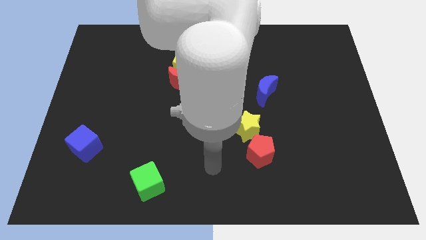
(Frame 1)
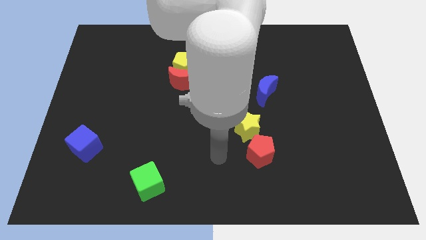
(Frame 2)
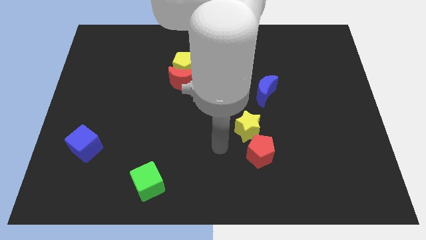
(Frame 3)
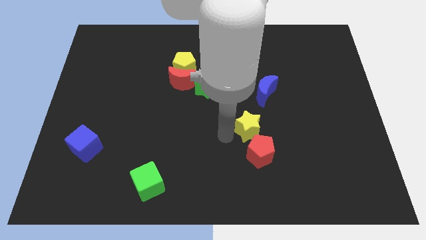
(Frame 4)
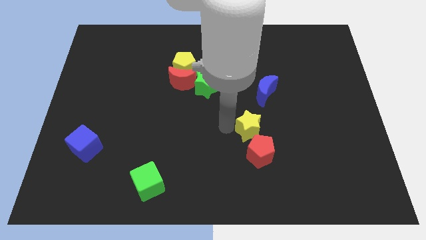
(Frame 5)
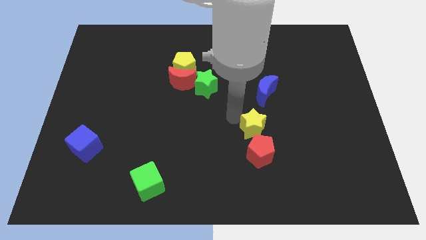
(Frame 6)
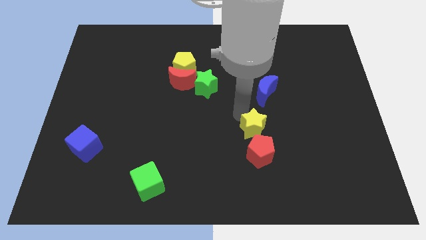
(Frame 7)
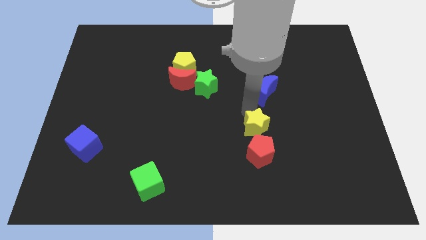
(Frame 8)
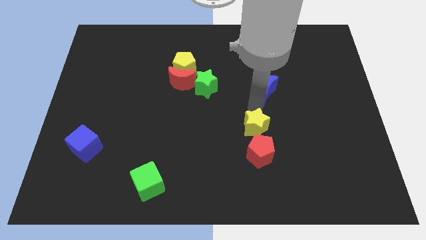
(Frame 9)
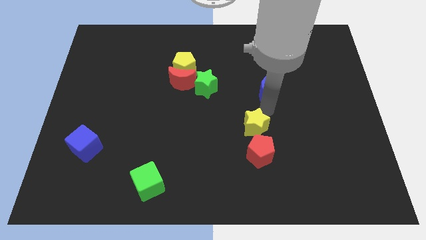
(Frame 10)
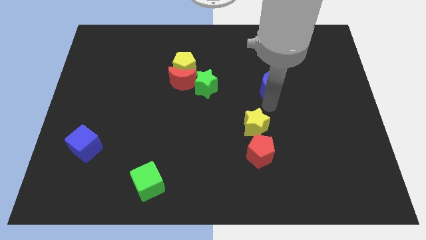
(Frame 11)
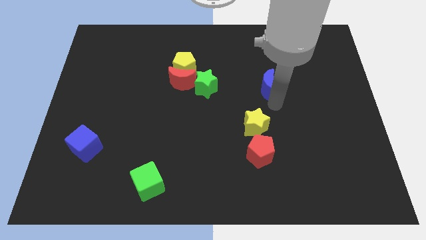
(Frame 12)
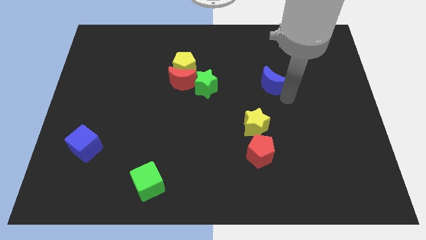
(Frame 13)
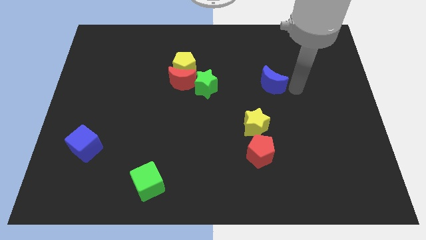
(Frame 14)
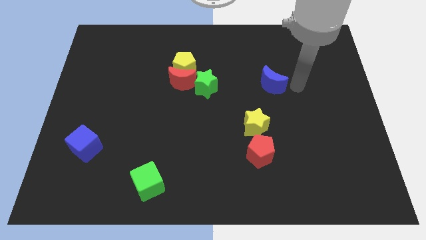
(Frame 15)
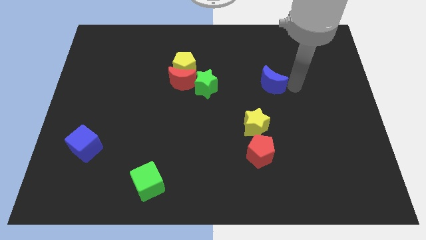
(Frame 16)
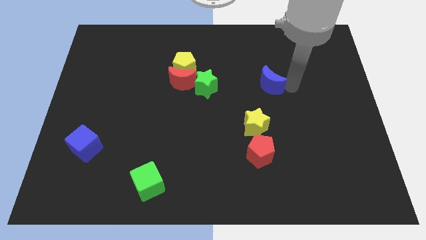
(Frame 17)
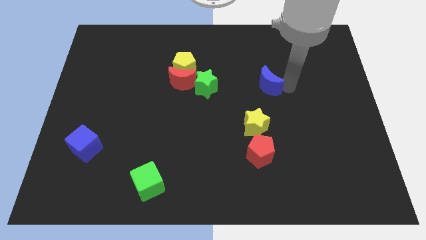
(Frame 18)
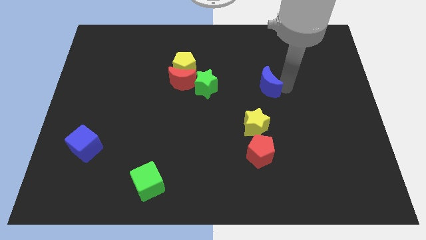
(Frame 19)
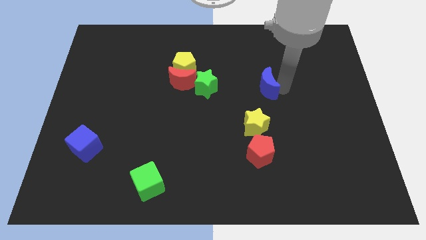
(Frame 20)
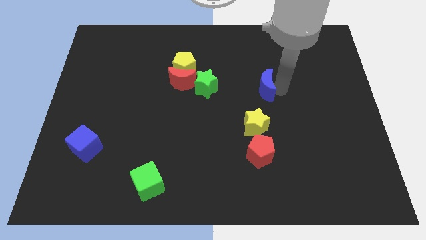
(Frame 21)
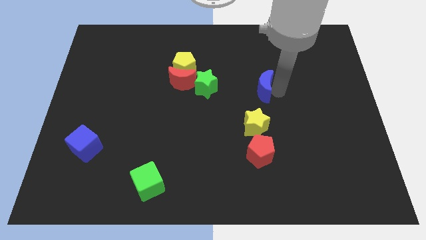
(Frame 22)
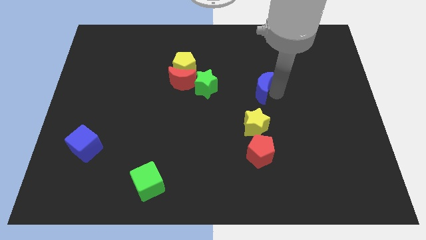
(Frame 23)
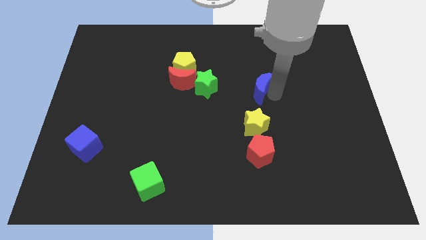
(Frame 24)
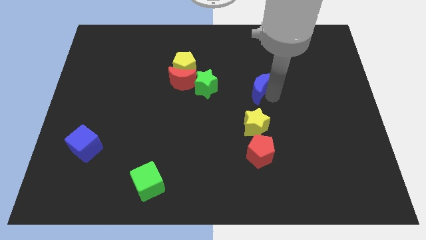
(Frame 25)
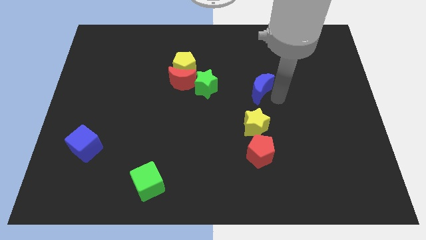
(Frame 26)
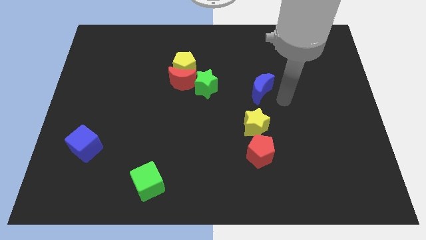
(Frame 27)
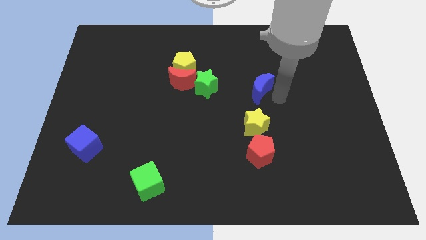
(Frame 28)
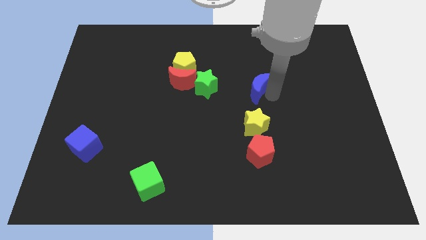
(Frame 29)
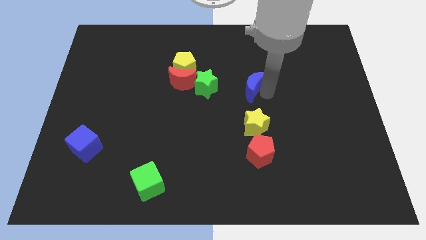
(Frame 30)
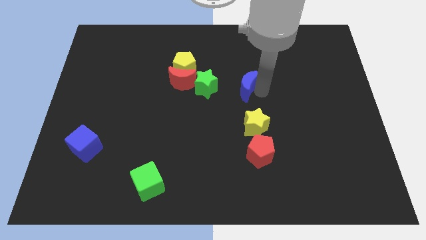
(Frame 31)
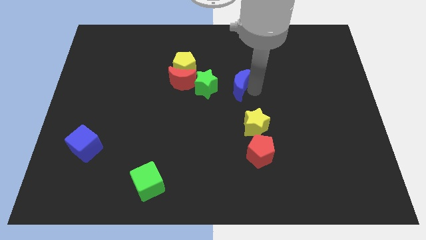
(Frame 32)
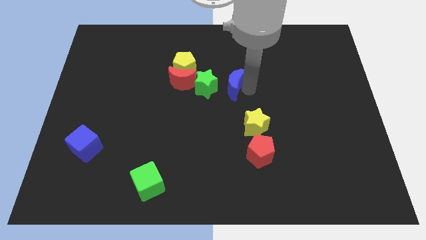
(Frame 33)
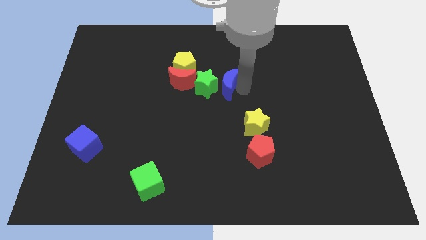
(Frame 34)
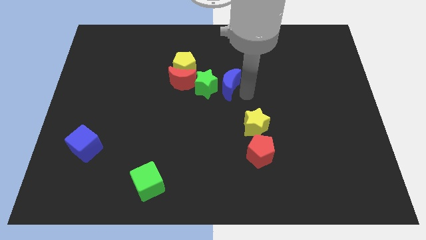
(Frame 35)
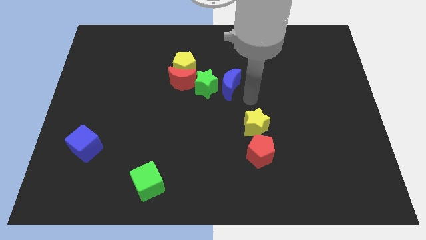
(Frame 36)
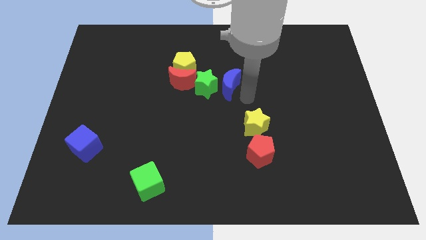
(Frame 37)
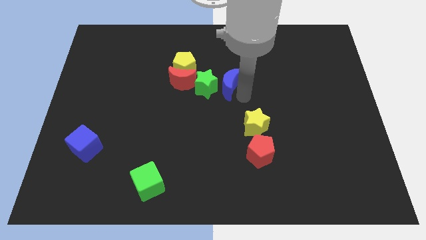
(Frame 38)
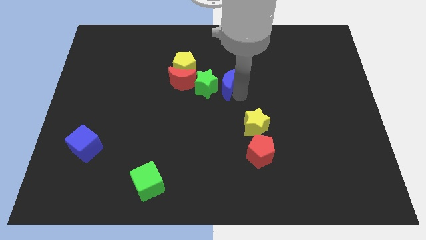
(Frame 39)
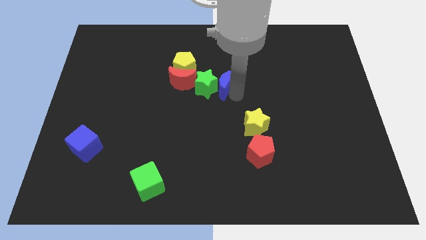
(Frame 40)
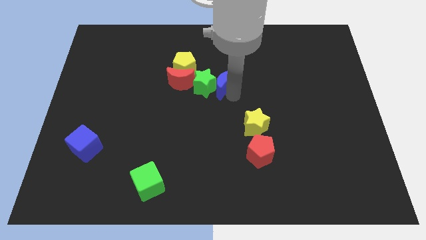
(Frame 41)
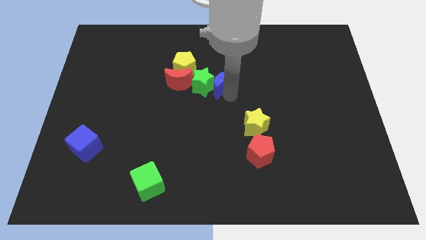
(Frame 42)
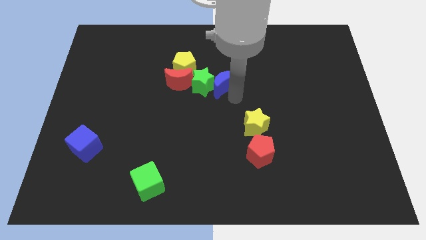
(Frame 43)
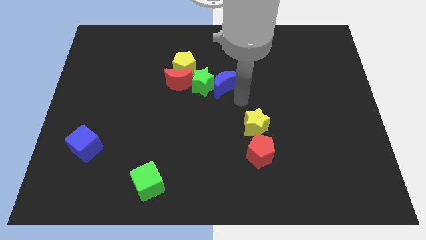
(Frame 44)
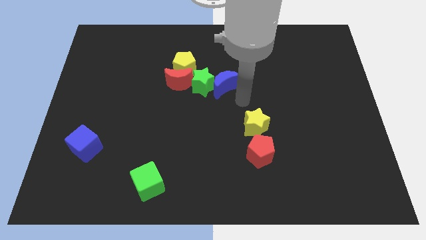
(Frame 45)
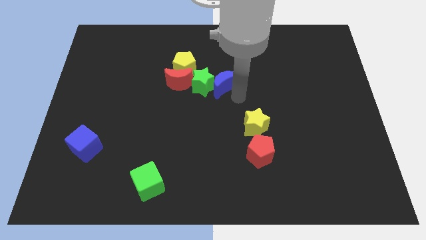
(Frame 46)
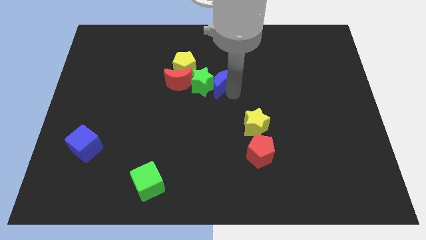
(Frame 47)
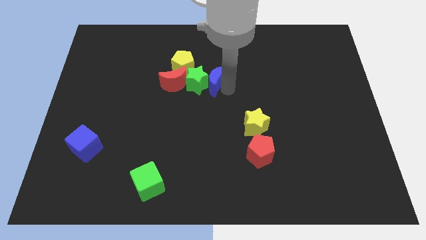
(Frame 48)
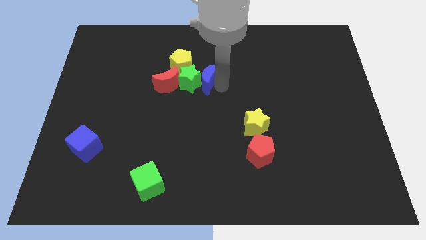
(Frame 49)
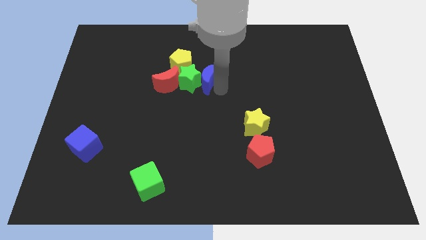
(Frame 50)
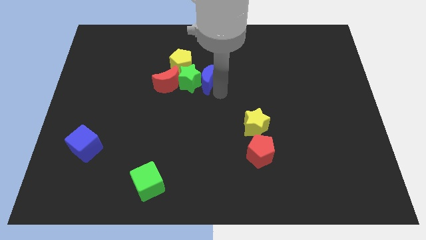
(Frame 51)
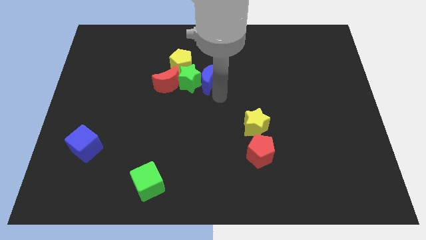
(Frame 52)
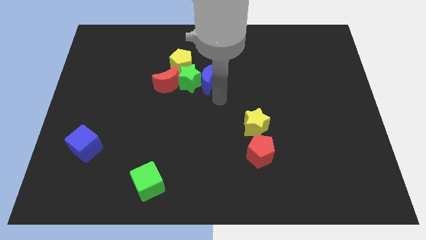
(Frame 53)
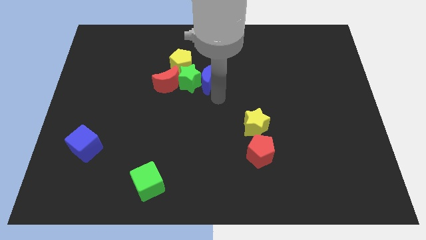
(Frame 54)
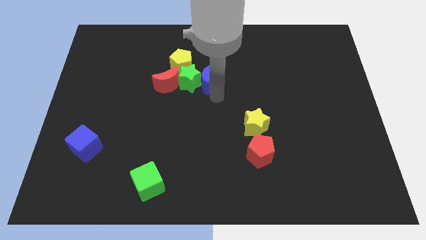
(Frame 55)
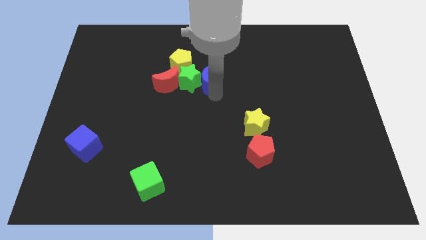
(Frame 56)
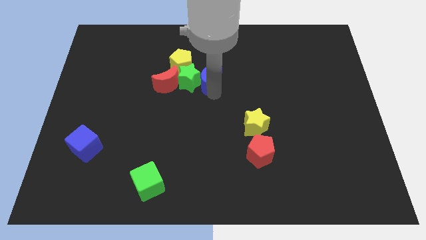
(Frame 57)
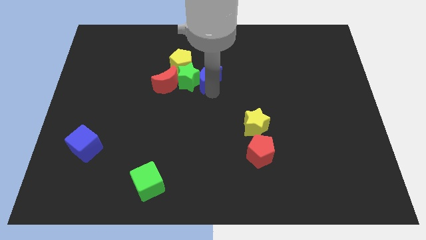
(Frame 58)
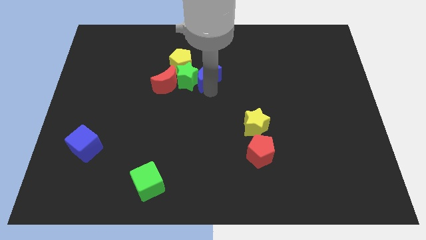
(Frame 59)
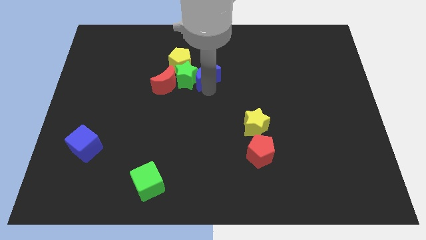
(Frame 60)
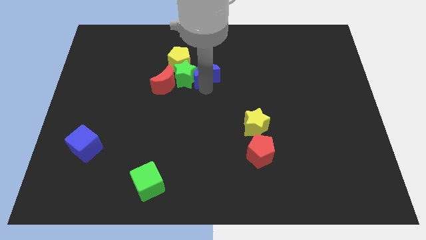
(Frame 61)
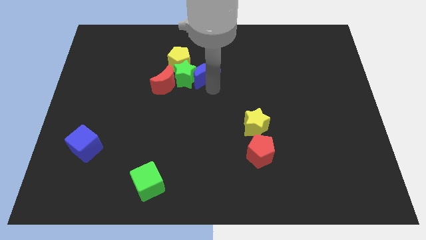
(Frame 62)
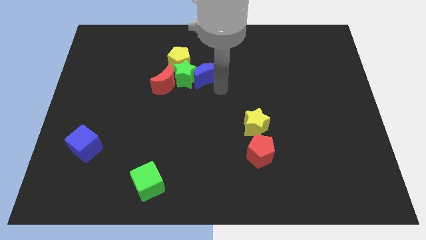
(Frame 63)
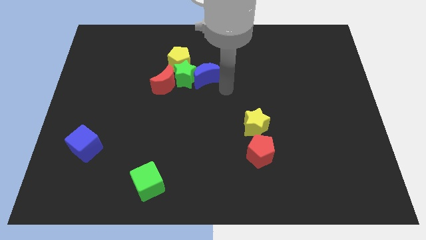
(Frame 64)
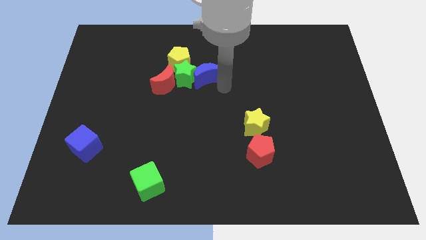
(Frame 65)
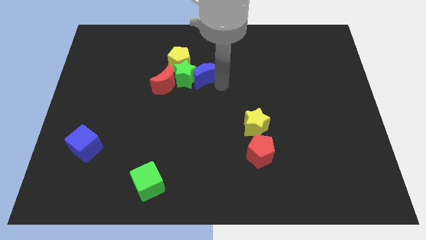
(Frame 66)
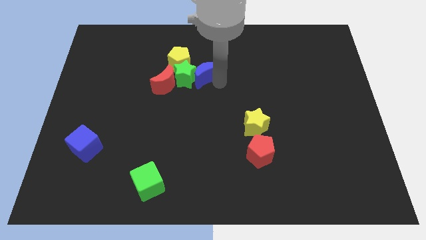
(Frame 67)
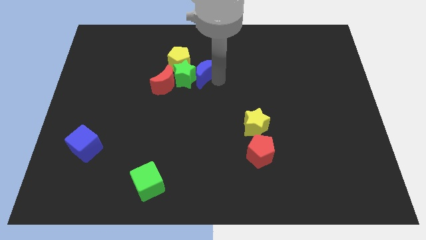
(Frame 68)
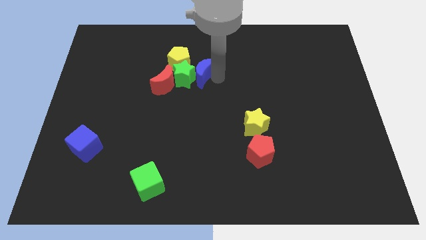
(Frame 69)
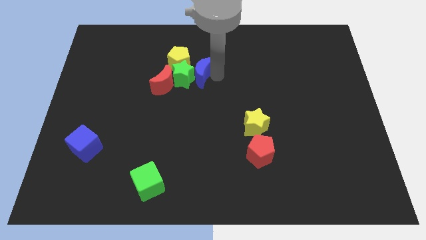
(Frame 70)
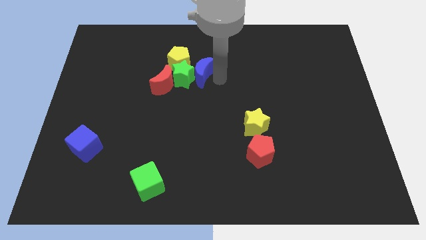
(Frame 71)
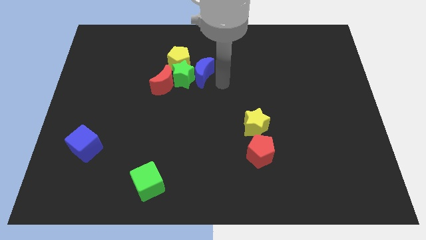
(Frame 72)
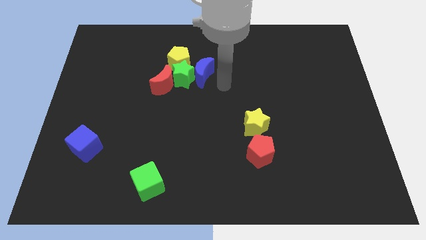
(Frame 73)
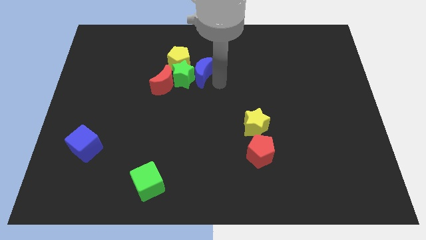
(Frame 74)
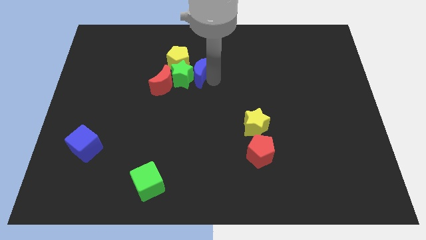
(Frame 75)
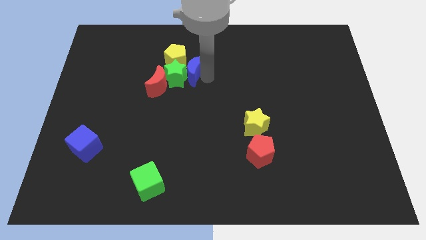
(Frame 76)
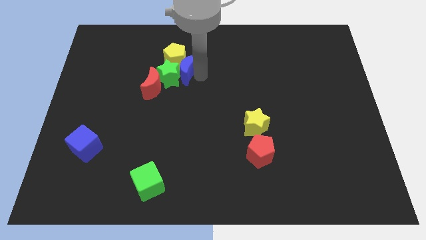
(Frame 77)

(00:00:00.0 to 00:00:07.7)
push the blue moon to the yellow pentagon
